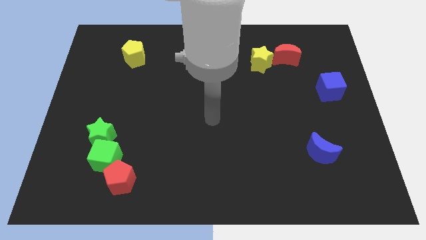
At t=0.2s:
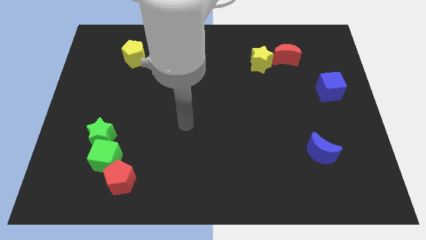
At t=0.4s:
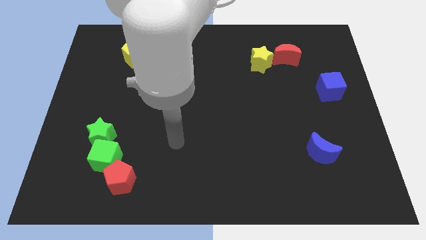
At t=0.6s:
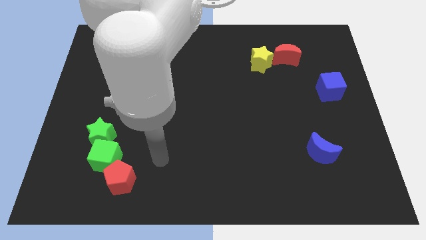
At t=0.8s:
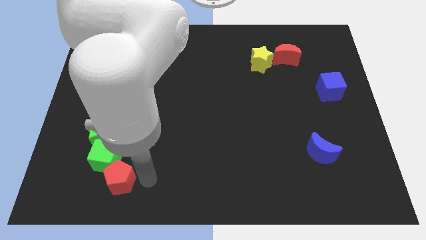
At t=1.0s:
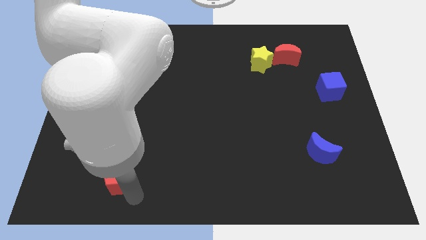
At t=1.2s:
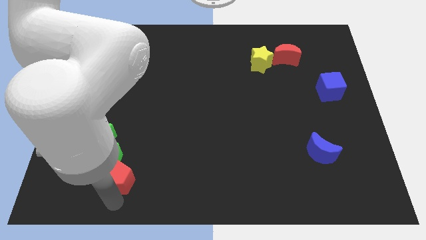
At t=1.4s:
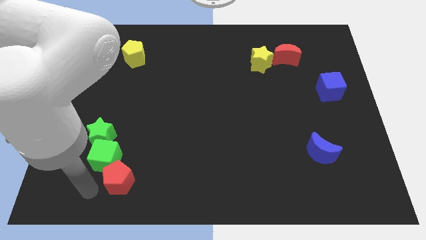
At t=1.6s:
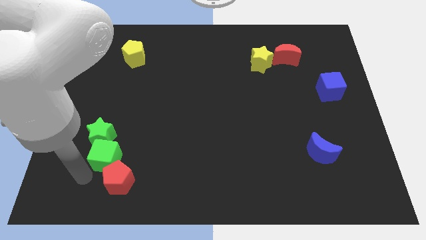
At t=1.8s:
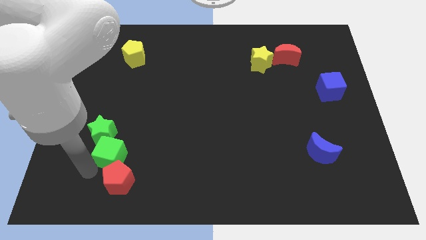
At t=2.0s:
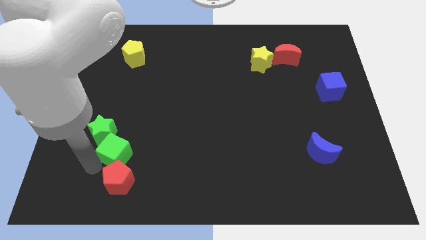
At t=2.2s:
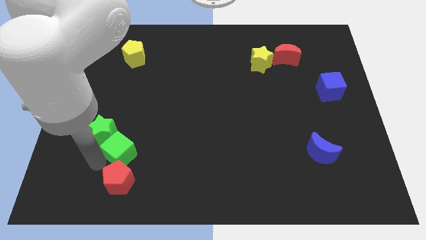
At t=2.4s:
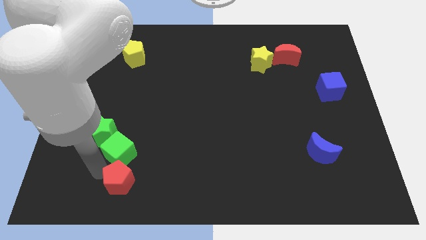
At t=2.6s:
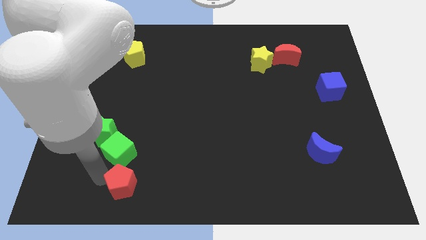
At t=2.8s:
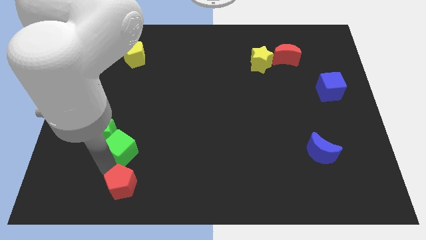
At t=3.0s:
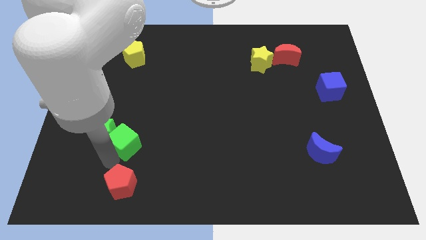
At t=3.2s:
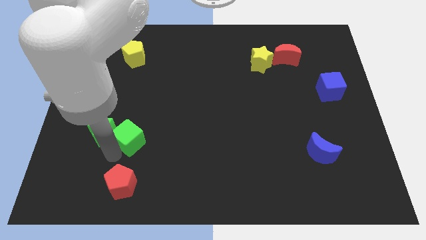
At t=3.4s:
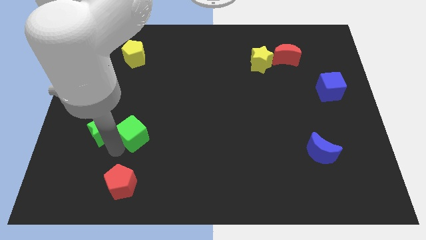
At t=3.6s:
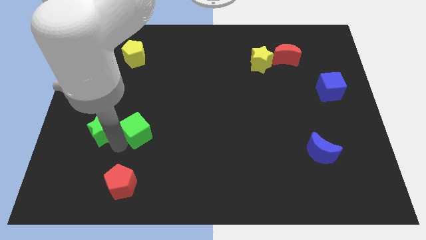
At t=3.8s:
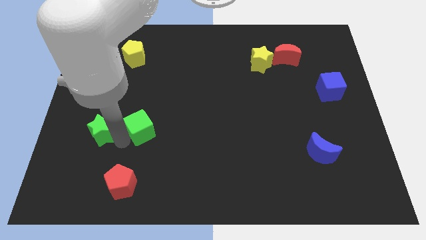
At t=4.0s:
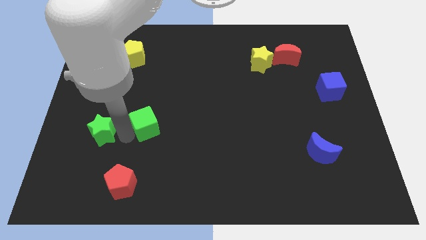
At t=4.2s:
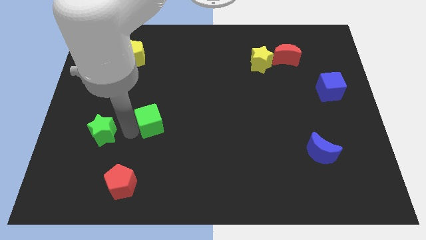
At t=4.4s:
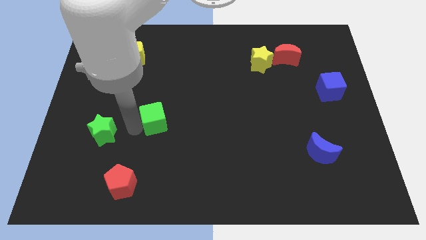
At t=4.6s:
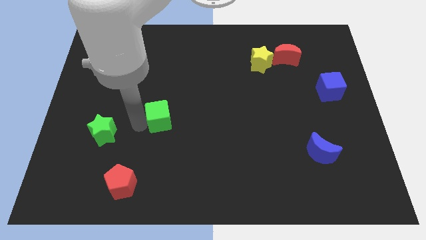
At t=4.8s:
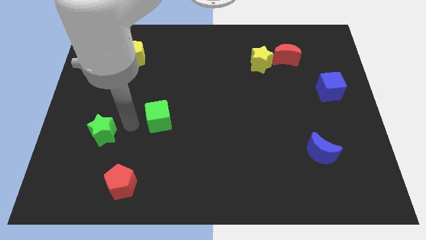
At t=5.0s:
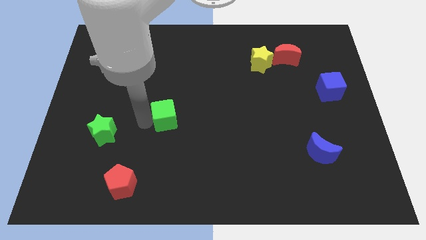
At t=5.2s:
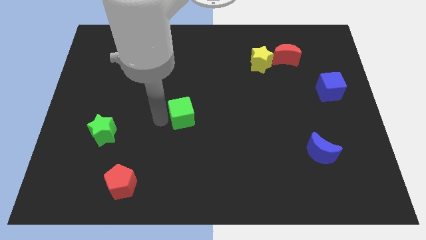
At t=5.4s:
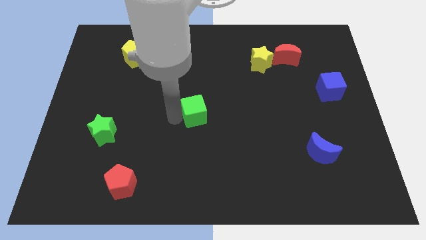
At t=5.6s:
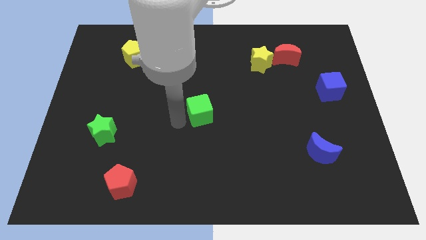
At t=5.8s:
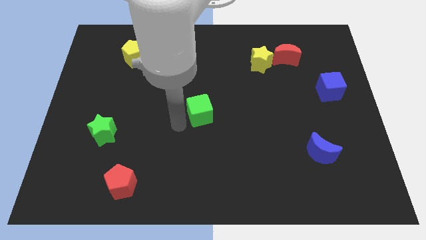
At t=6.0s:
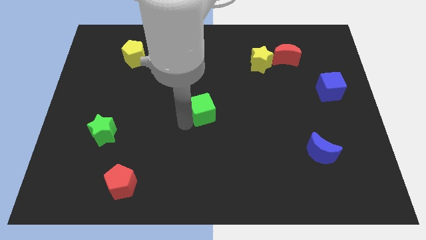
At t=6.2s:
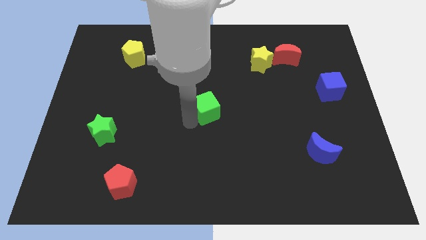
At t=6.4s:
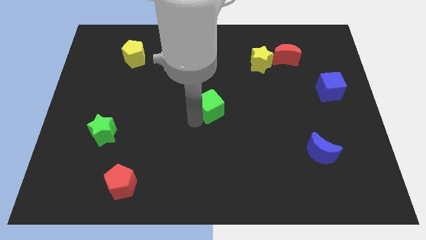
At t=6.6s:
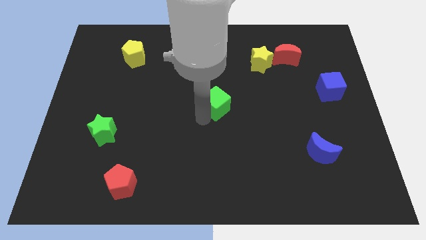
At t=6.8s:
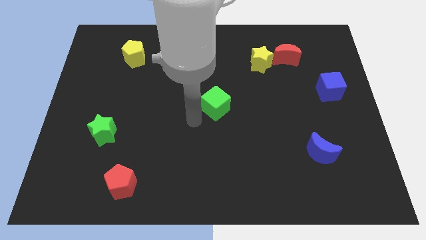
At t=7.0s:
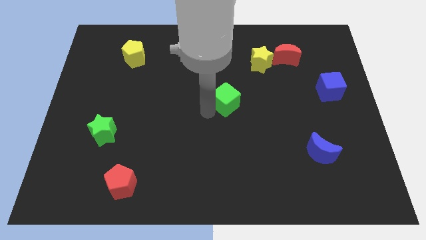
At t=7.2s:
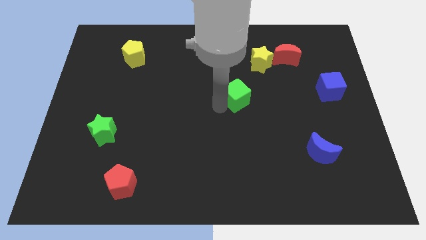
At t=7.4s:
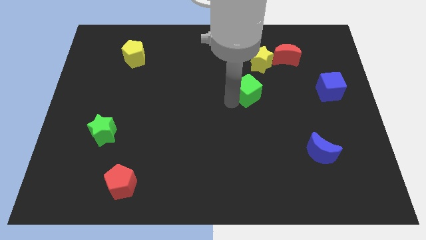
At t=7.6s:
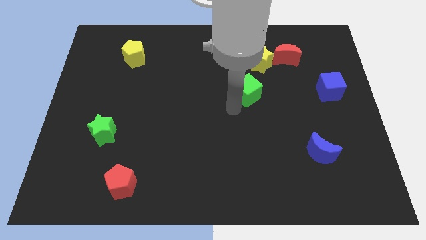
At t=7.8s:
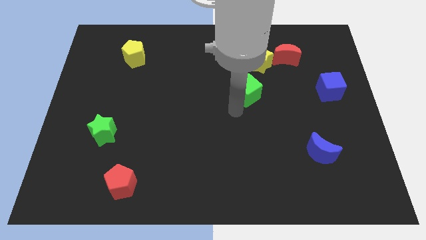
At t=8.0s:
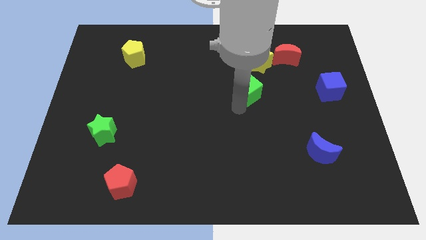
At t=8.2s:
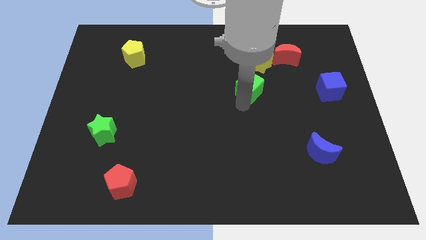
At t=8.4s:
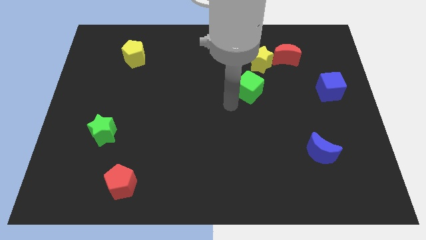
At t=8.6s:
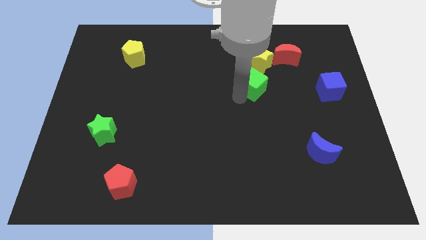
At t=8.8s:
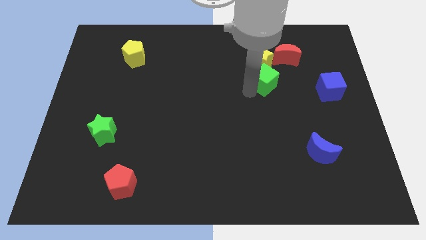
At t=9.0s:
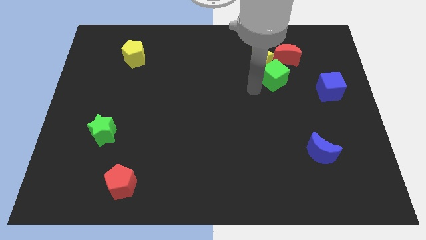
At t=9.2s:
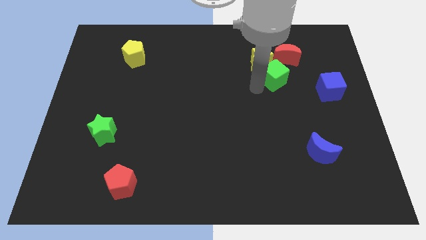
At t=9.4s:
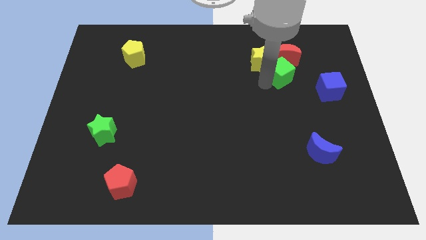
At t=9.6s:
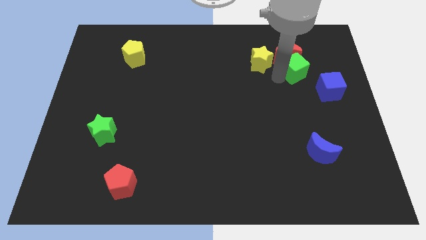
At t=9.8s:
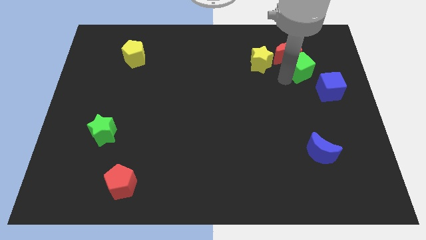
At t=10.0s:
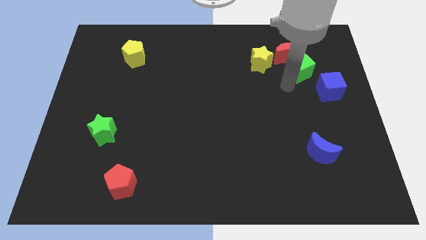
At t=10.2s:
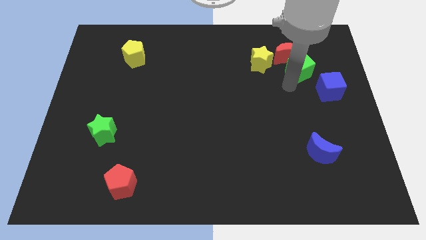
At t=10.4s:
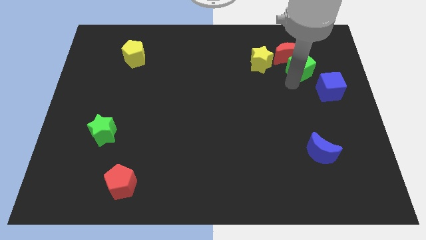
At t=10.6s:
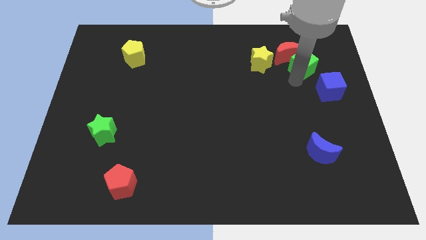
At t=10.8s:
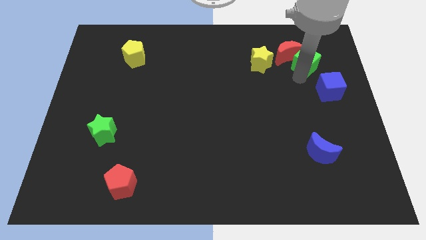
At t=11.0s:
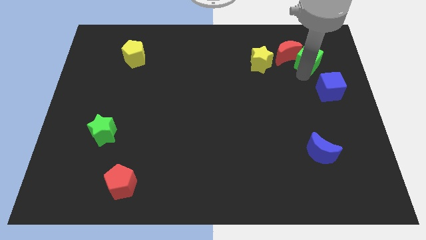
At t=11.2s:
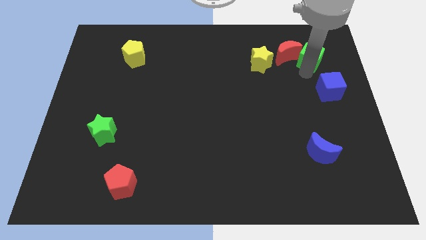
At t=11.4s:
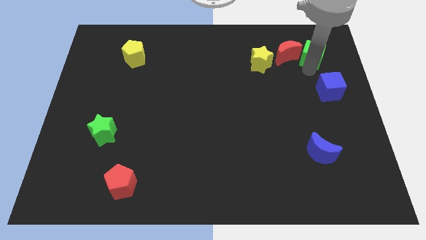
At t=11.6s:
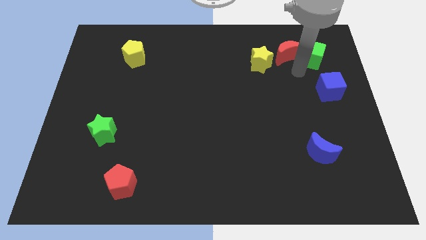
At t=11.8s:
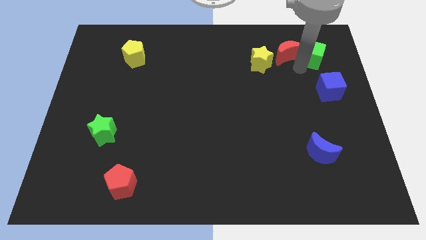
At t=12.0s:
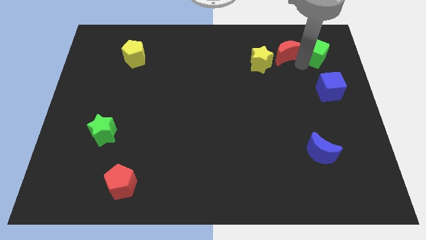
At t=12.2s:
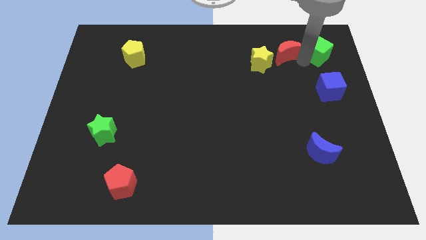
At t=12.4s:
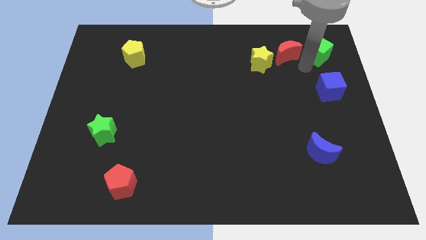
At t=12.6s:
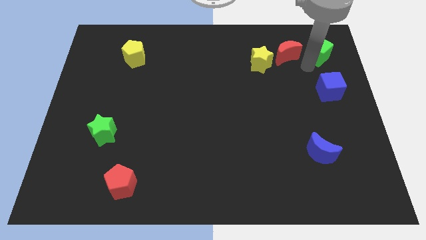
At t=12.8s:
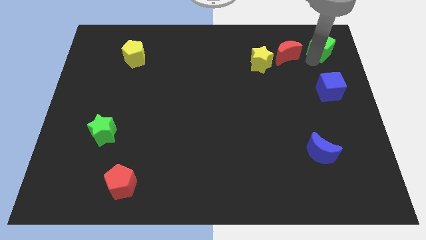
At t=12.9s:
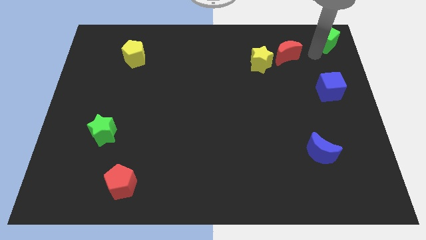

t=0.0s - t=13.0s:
push the green cube to the upper right corner
